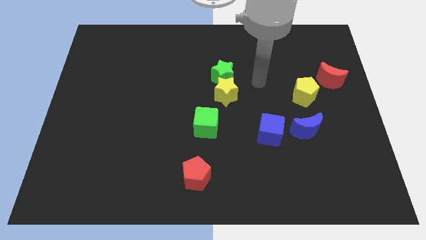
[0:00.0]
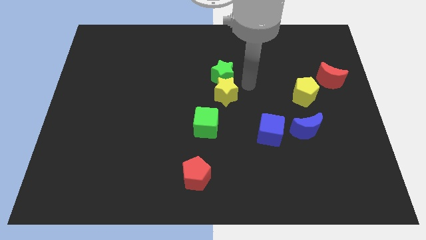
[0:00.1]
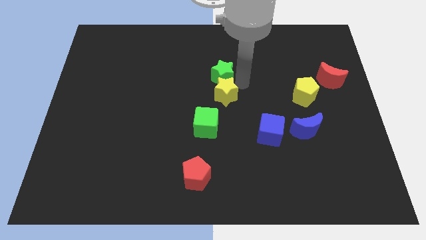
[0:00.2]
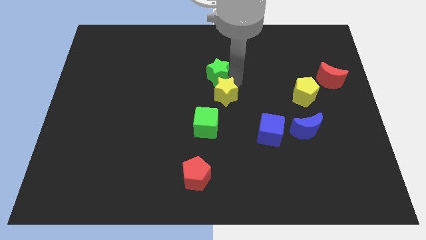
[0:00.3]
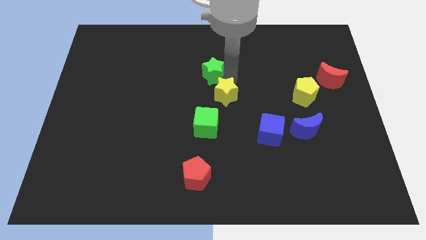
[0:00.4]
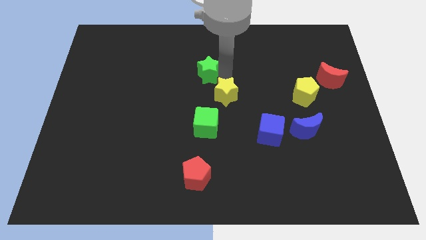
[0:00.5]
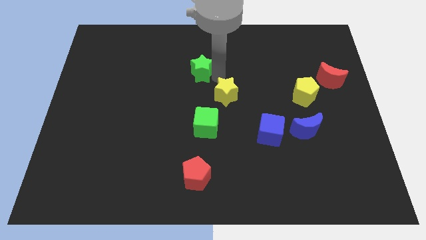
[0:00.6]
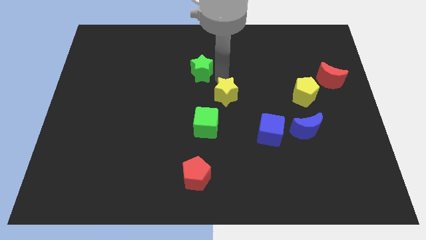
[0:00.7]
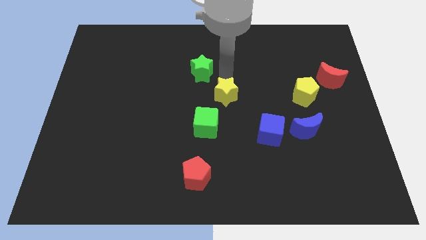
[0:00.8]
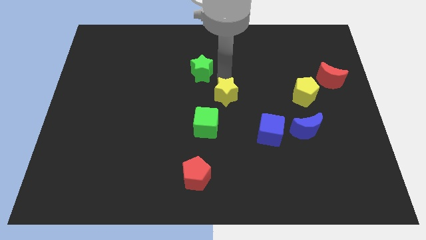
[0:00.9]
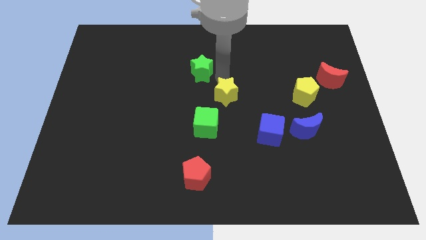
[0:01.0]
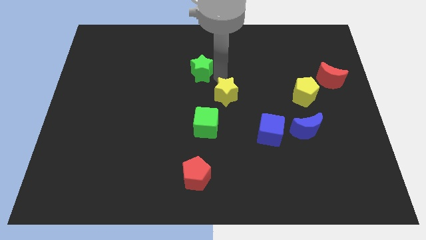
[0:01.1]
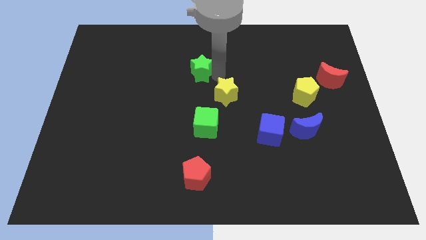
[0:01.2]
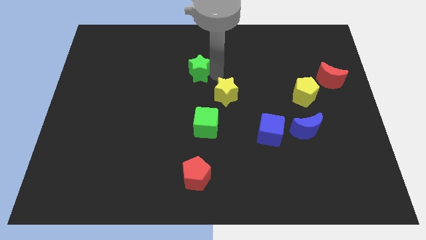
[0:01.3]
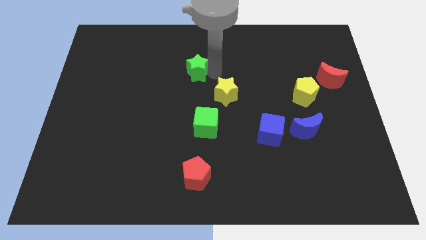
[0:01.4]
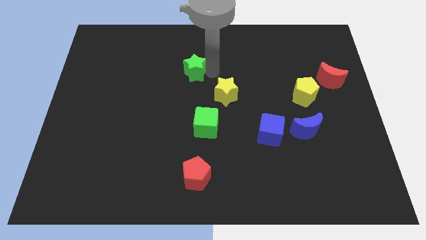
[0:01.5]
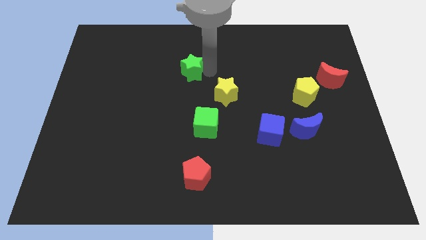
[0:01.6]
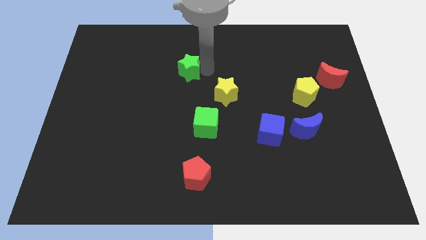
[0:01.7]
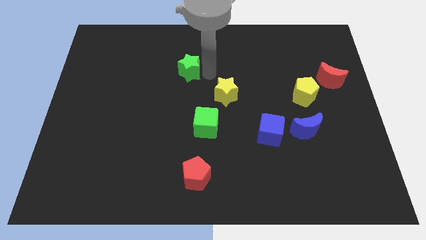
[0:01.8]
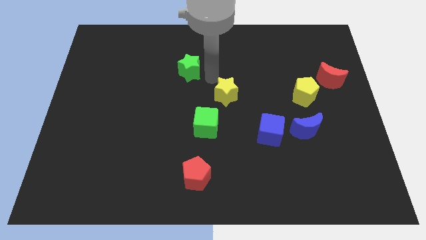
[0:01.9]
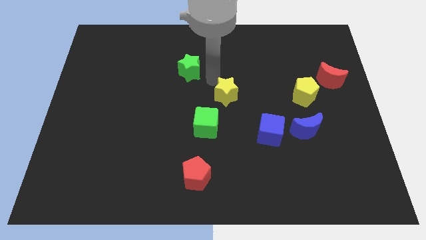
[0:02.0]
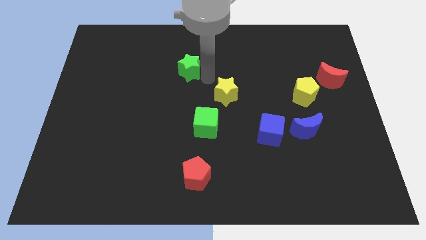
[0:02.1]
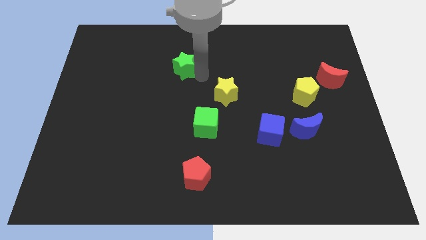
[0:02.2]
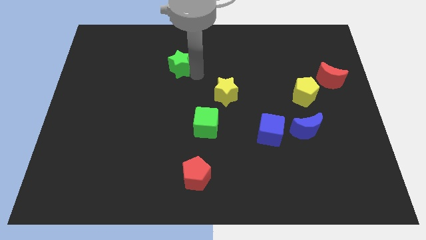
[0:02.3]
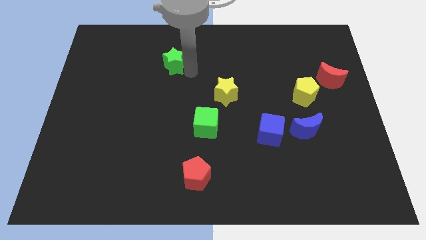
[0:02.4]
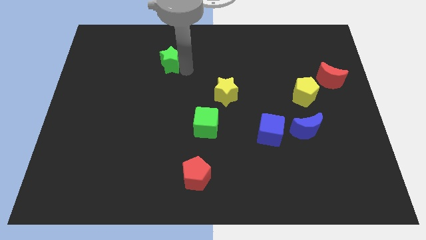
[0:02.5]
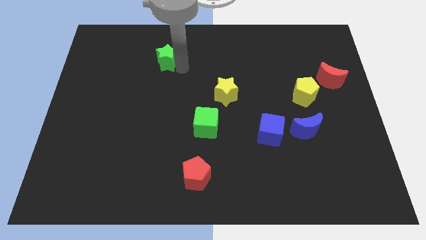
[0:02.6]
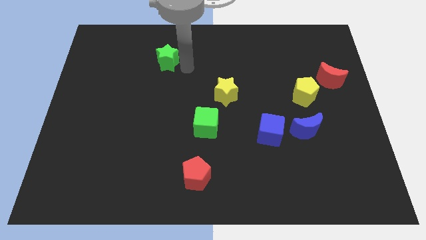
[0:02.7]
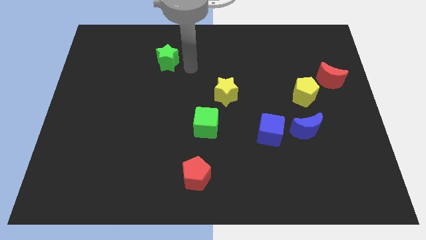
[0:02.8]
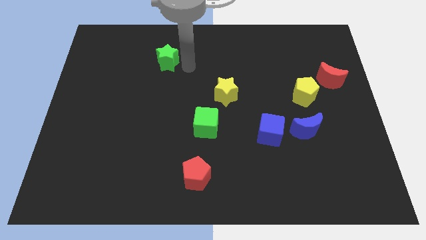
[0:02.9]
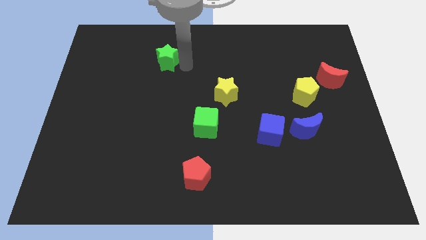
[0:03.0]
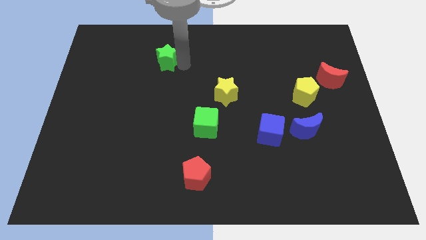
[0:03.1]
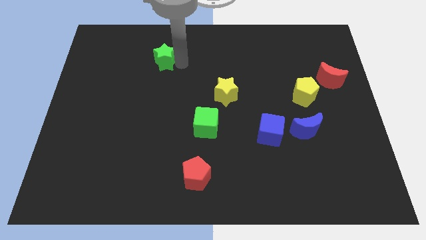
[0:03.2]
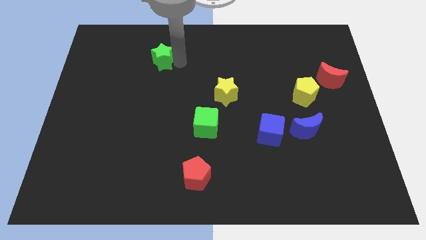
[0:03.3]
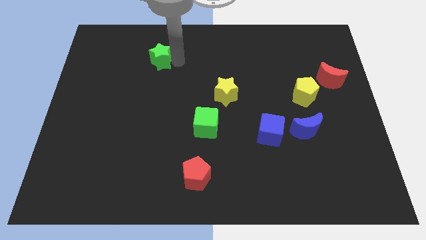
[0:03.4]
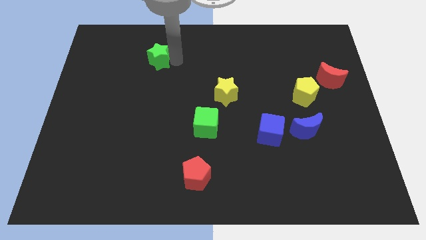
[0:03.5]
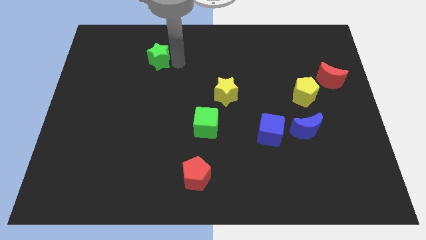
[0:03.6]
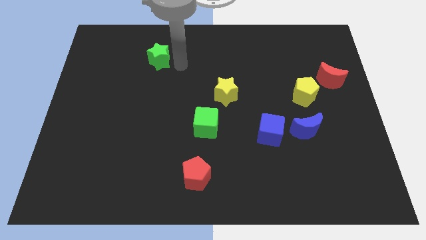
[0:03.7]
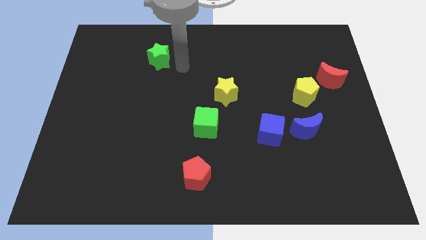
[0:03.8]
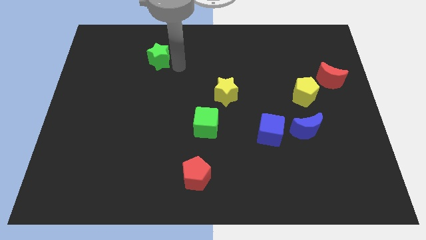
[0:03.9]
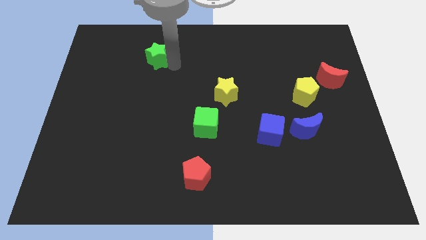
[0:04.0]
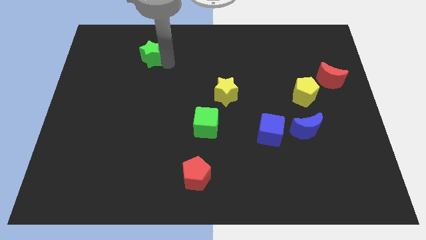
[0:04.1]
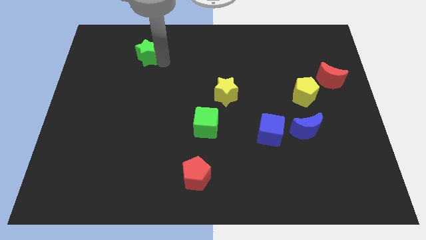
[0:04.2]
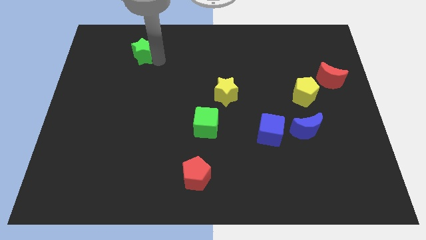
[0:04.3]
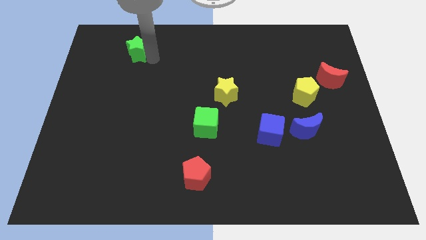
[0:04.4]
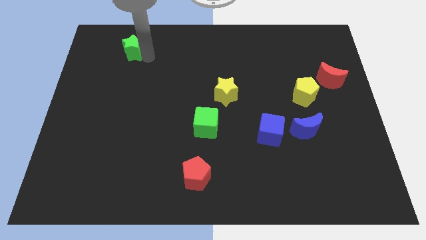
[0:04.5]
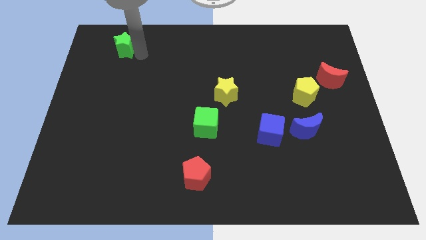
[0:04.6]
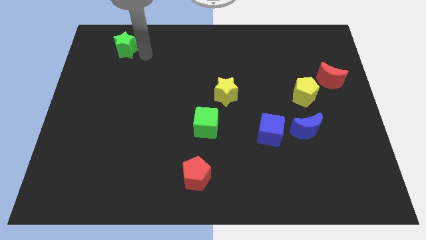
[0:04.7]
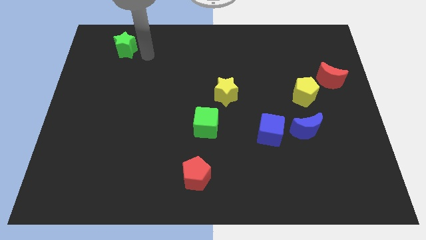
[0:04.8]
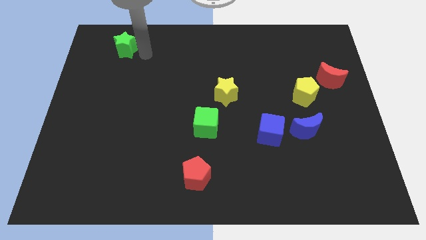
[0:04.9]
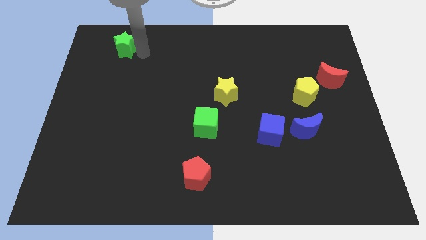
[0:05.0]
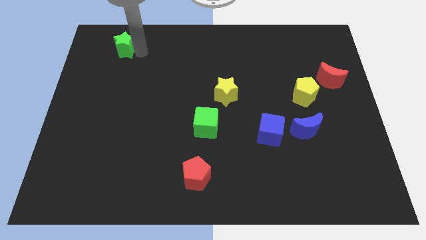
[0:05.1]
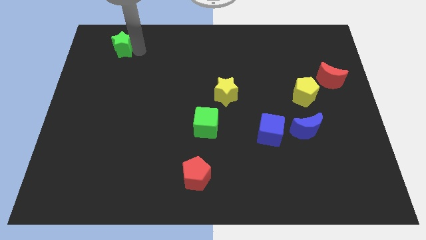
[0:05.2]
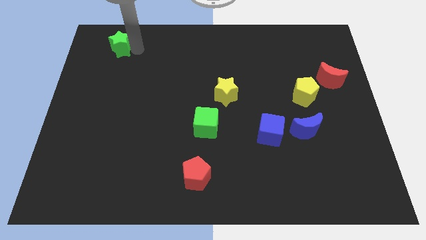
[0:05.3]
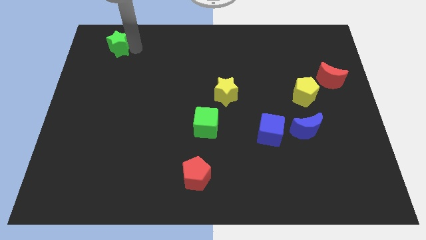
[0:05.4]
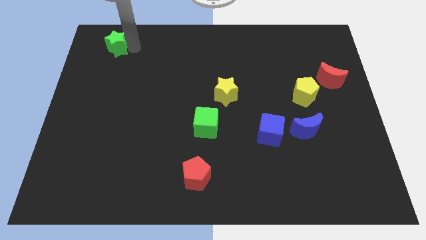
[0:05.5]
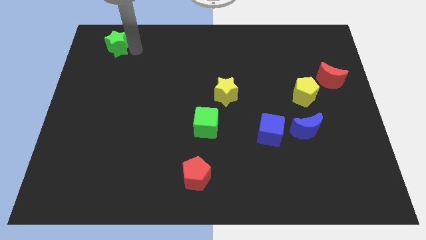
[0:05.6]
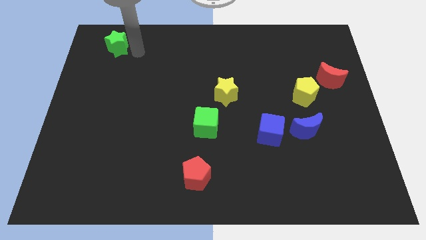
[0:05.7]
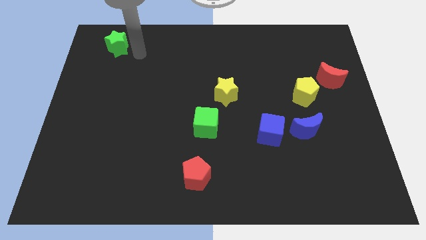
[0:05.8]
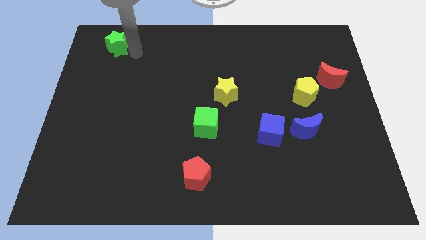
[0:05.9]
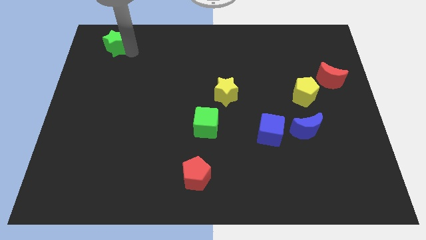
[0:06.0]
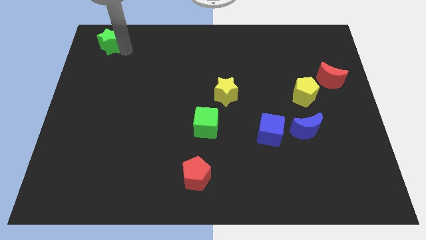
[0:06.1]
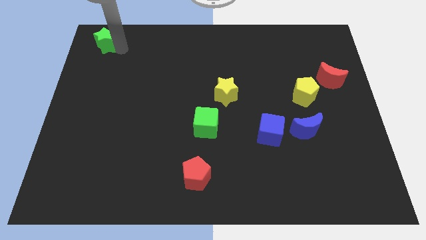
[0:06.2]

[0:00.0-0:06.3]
move the green star to the top left of the board

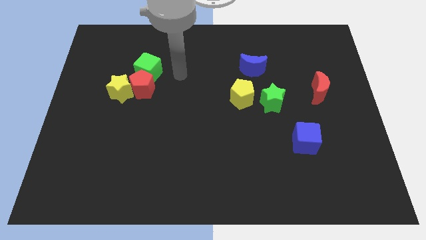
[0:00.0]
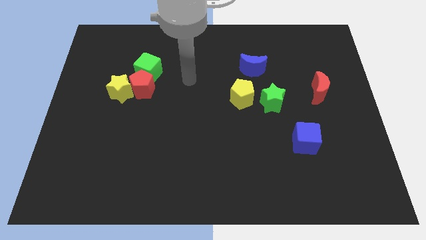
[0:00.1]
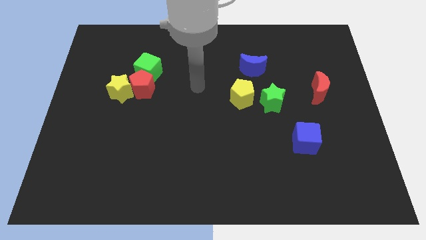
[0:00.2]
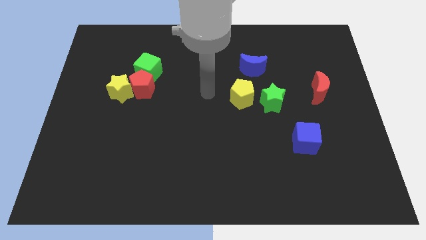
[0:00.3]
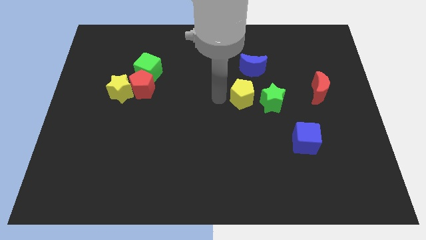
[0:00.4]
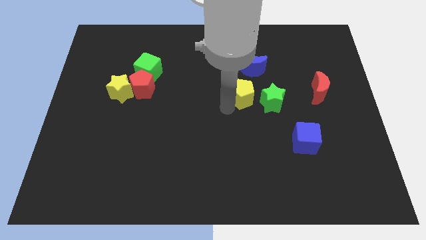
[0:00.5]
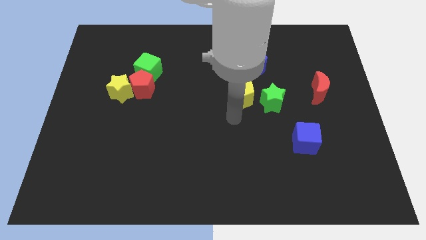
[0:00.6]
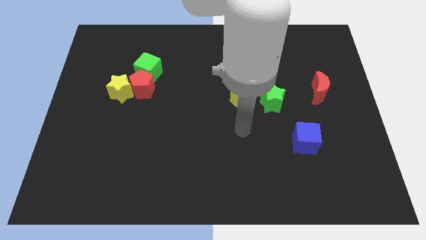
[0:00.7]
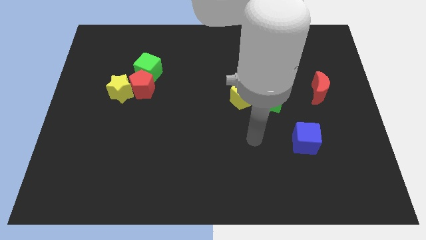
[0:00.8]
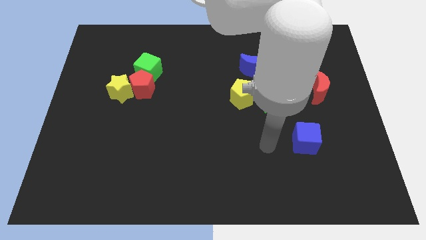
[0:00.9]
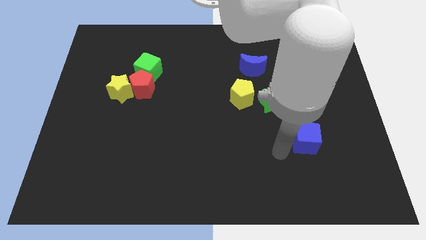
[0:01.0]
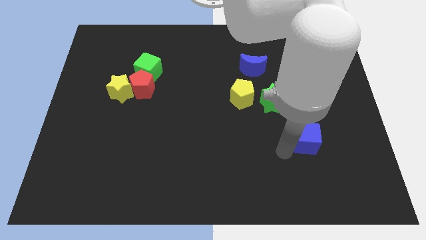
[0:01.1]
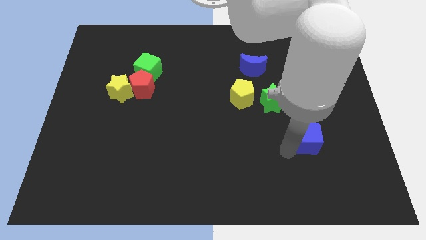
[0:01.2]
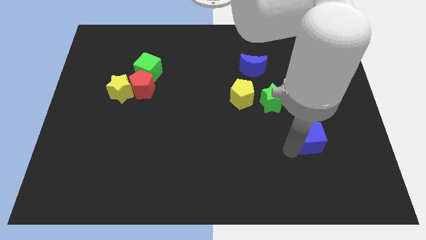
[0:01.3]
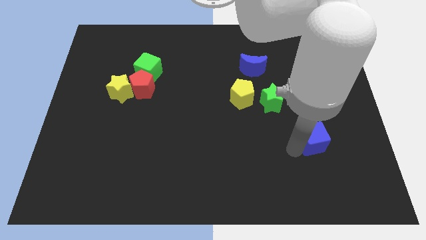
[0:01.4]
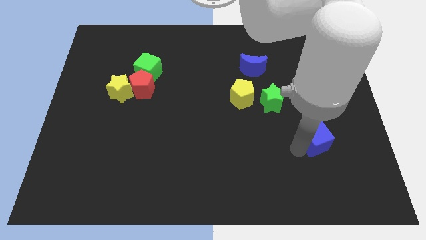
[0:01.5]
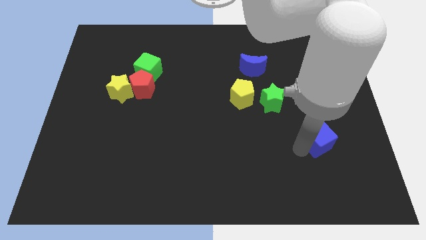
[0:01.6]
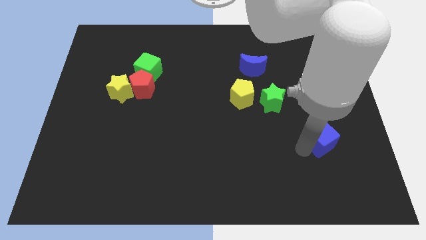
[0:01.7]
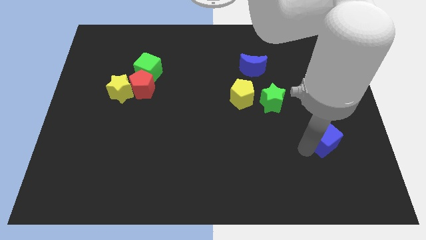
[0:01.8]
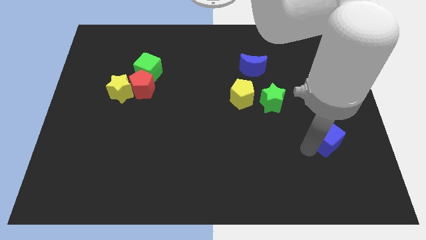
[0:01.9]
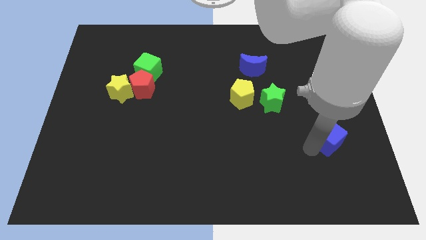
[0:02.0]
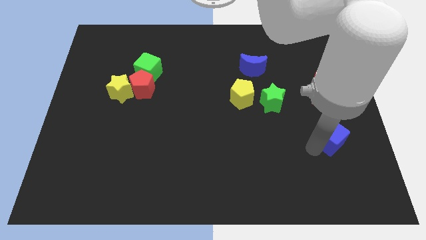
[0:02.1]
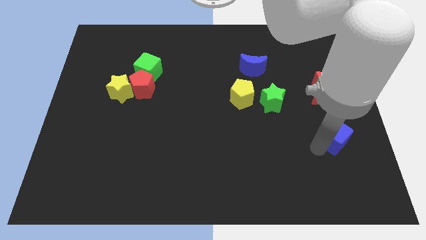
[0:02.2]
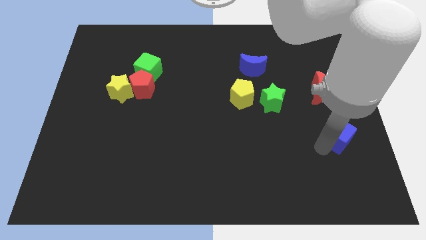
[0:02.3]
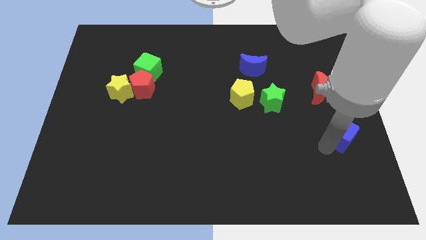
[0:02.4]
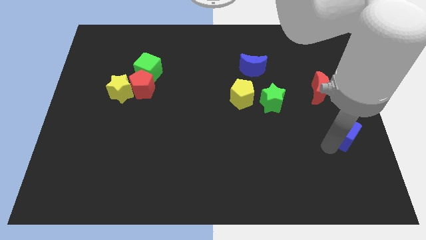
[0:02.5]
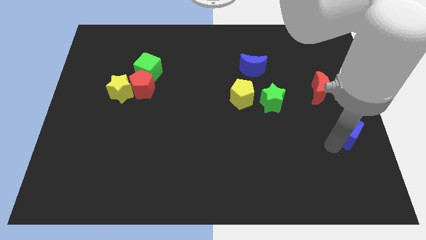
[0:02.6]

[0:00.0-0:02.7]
push the blue cube to the right side of the board
